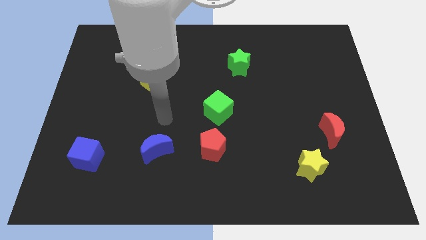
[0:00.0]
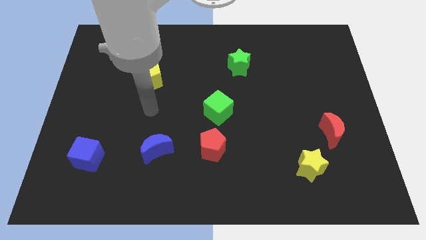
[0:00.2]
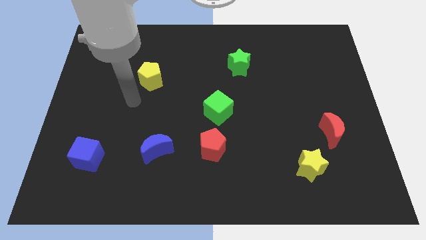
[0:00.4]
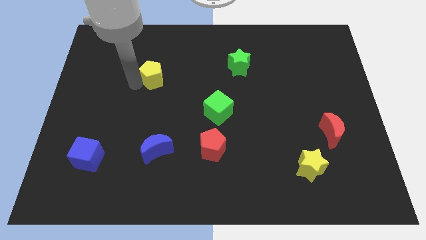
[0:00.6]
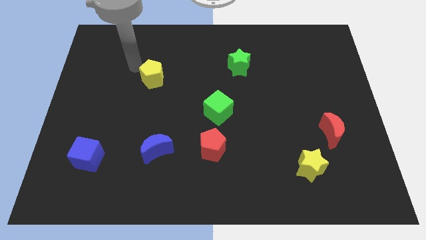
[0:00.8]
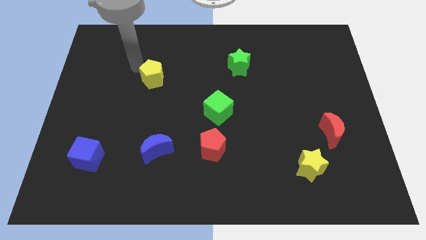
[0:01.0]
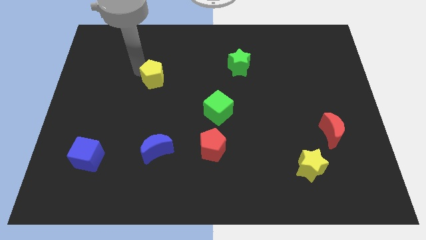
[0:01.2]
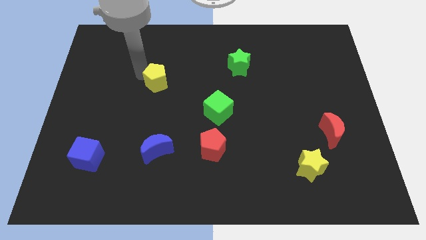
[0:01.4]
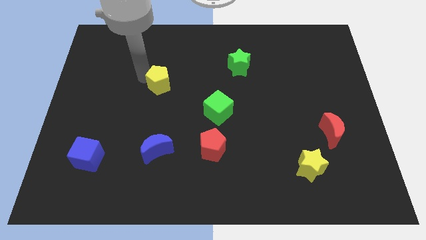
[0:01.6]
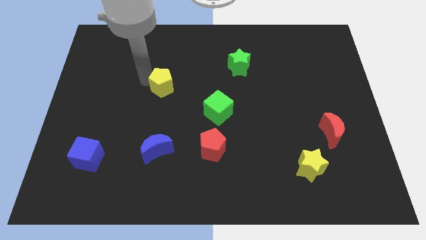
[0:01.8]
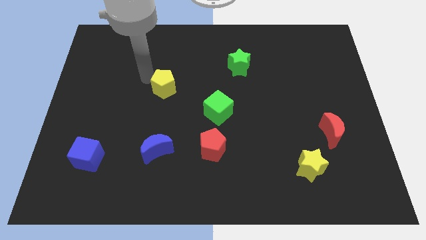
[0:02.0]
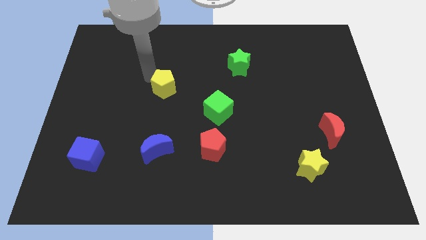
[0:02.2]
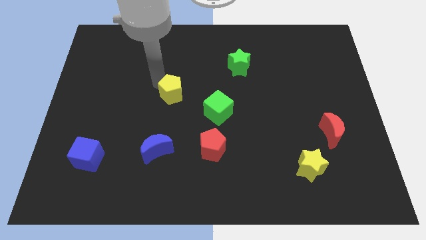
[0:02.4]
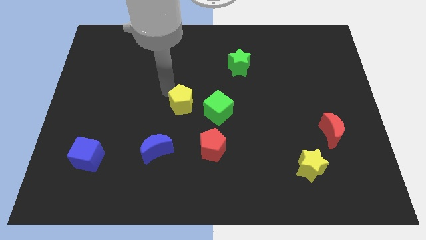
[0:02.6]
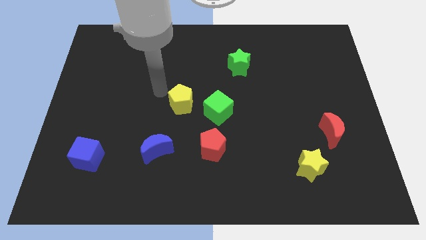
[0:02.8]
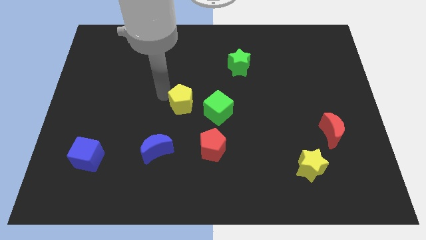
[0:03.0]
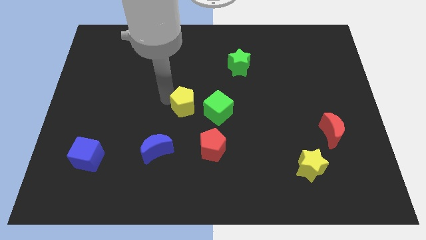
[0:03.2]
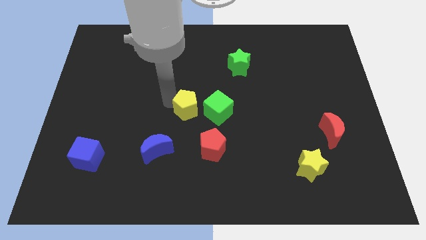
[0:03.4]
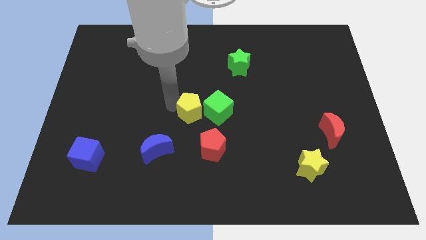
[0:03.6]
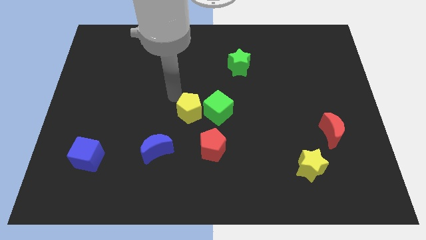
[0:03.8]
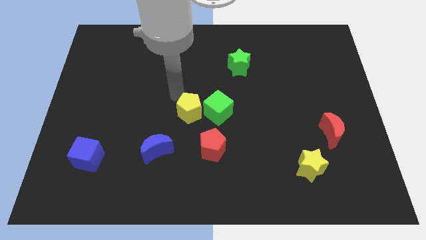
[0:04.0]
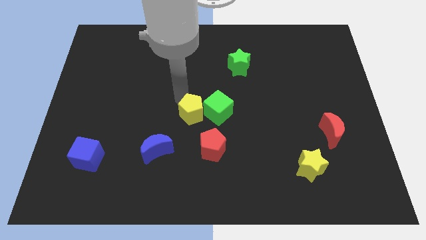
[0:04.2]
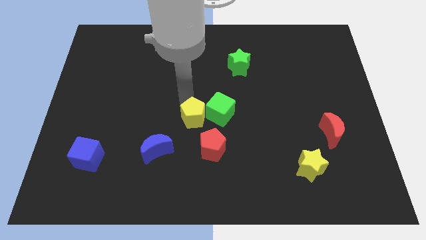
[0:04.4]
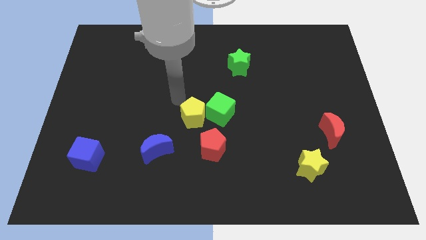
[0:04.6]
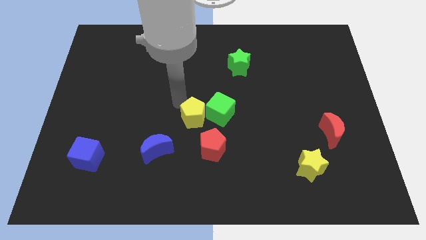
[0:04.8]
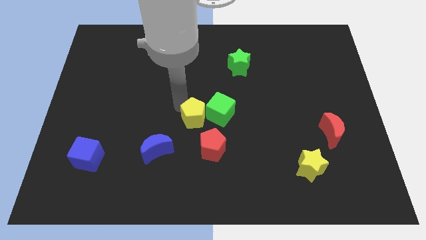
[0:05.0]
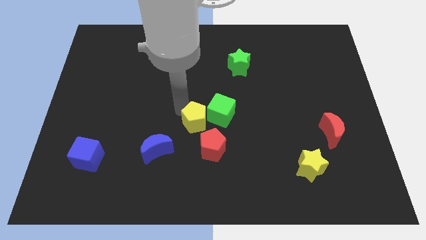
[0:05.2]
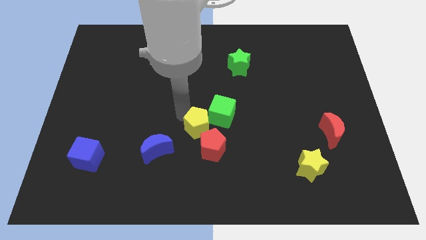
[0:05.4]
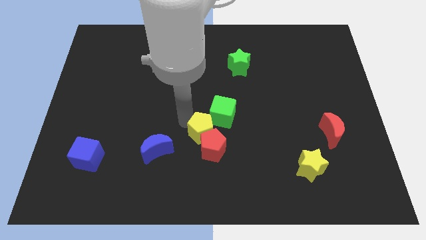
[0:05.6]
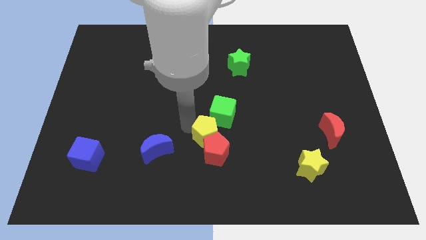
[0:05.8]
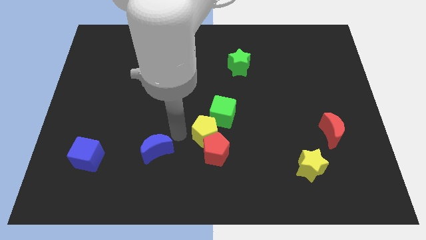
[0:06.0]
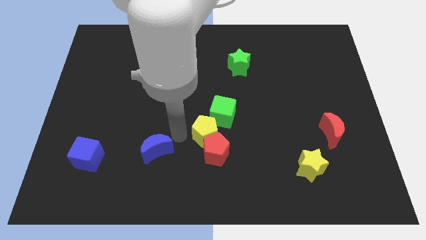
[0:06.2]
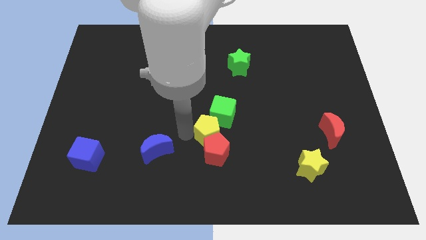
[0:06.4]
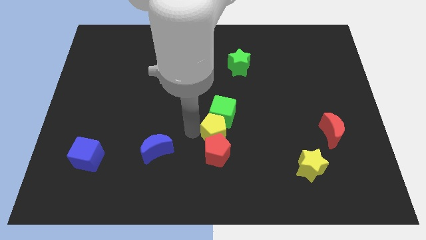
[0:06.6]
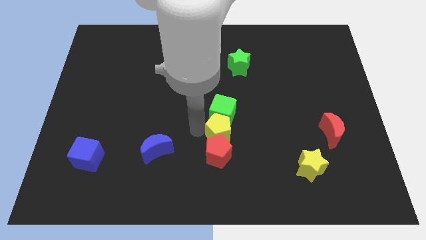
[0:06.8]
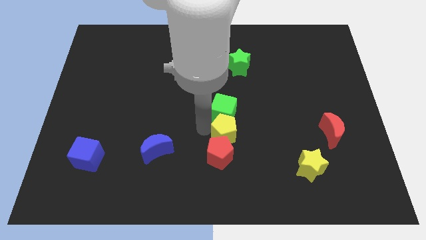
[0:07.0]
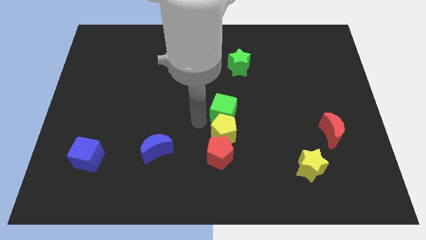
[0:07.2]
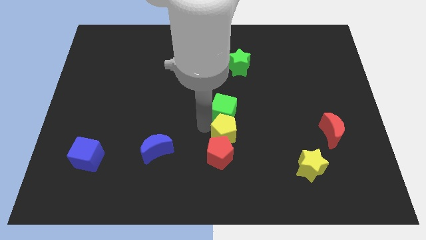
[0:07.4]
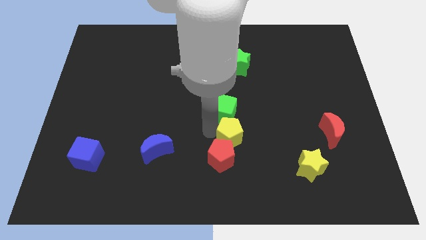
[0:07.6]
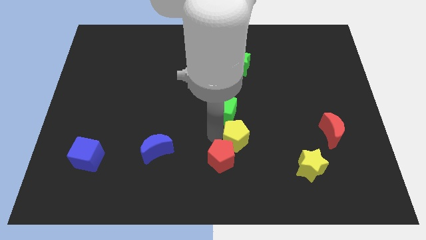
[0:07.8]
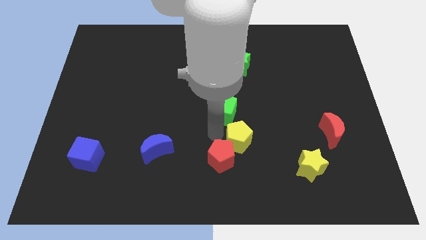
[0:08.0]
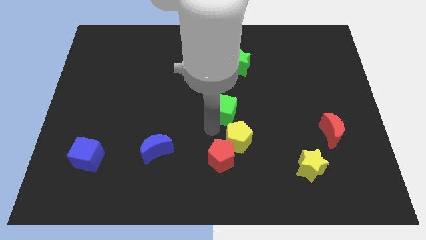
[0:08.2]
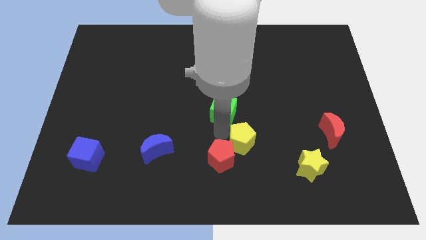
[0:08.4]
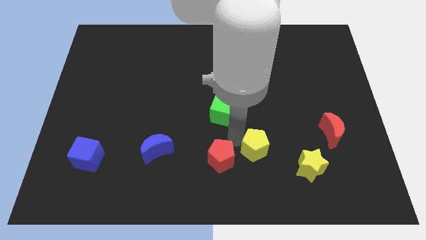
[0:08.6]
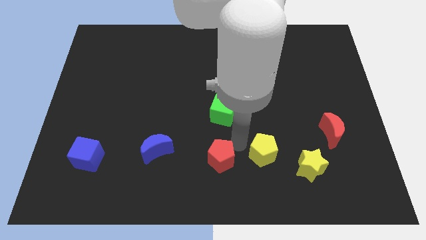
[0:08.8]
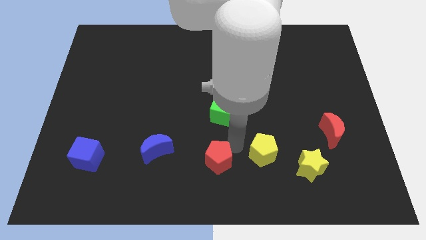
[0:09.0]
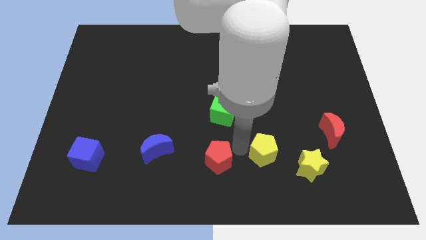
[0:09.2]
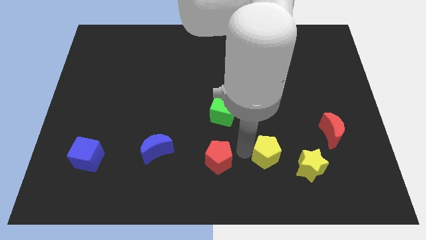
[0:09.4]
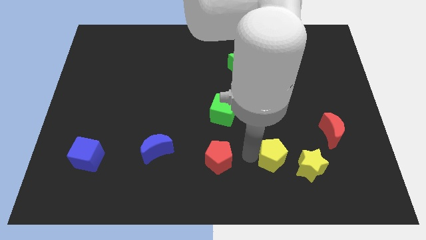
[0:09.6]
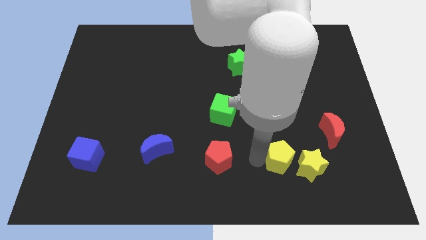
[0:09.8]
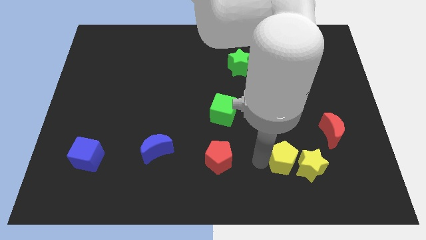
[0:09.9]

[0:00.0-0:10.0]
put the yellow pentagon next to the yellow star

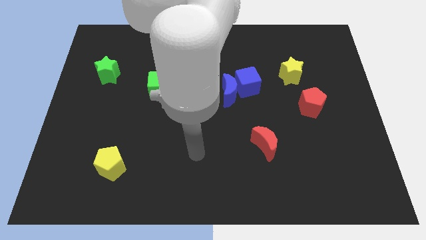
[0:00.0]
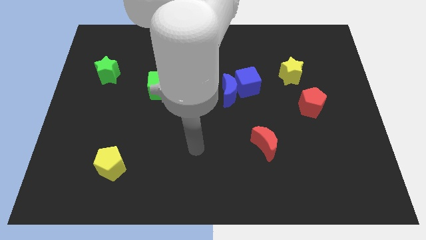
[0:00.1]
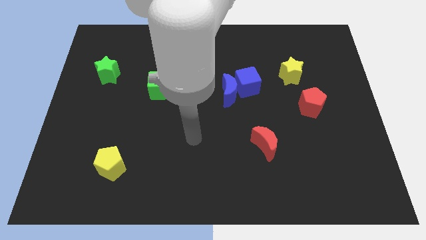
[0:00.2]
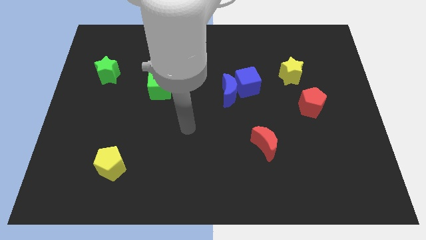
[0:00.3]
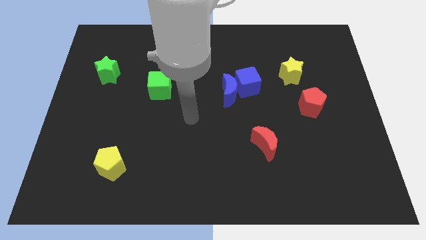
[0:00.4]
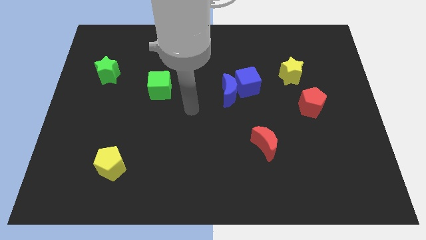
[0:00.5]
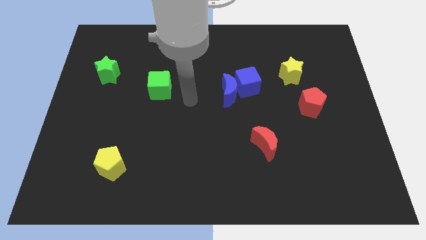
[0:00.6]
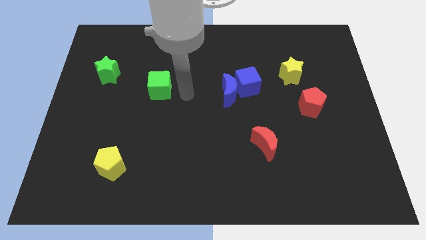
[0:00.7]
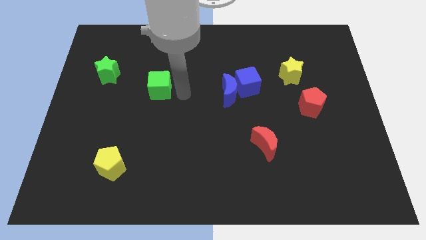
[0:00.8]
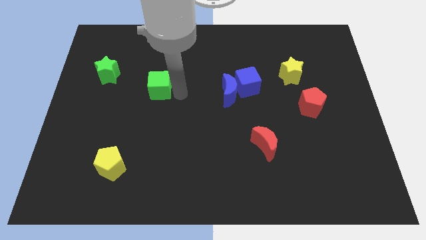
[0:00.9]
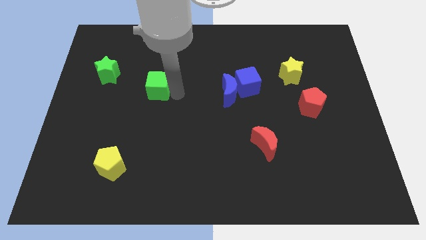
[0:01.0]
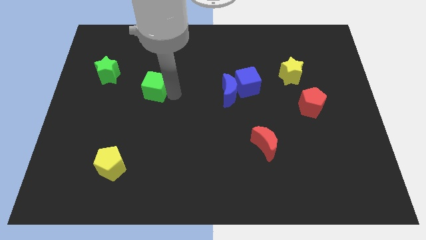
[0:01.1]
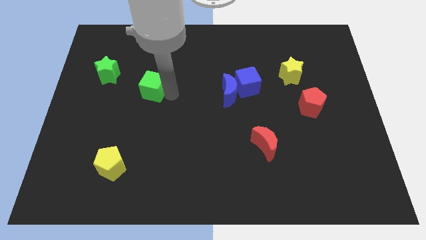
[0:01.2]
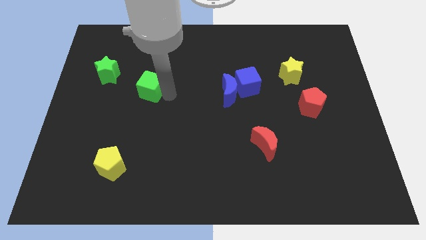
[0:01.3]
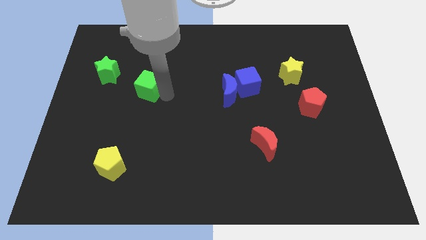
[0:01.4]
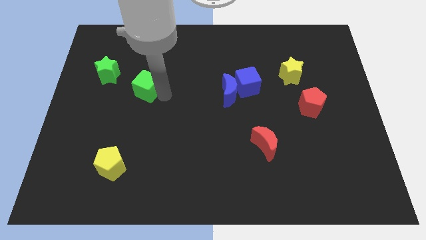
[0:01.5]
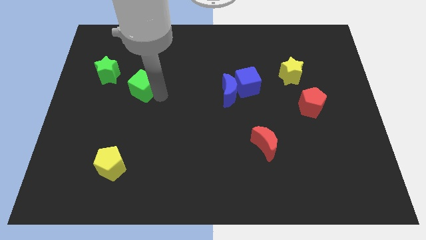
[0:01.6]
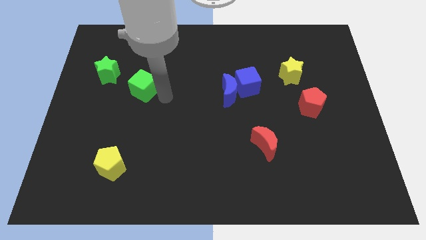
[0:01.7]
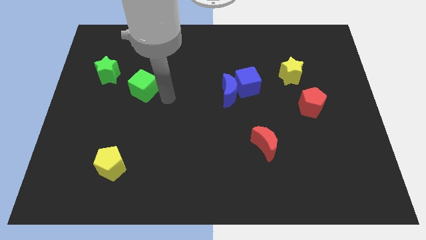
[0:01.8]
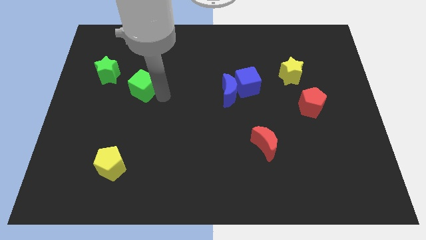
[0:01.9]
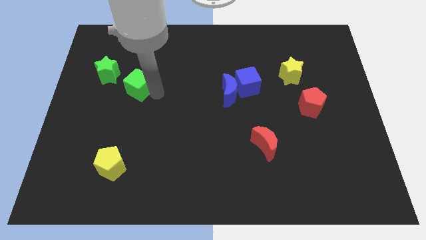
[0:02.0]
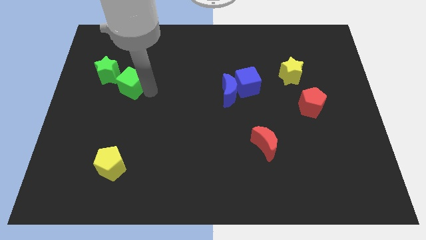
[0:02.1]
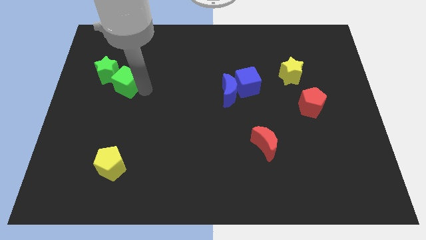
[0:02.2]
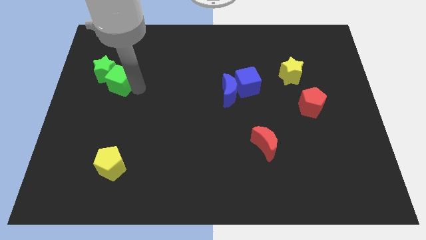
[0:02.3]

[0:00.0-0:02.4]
move the green cube to the green star
